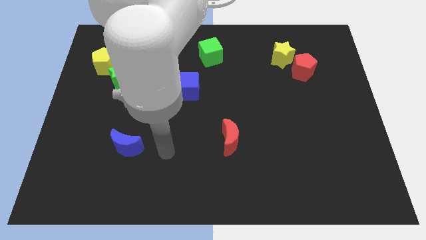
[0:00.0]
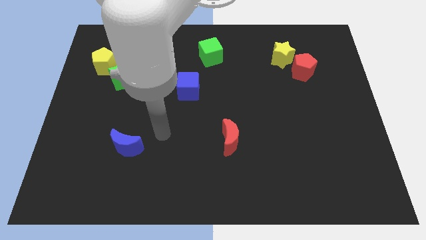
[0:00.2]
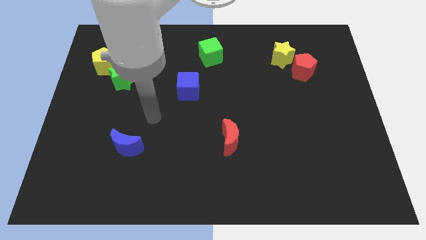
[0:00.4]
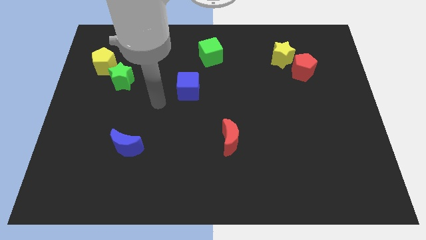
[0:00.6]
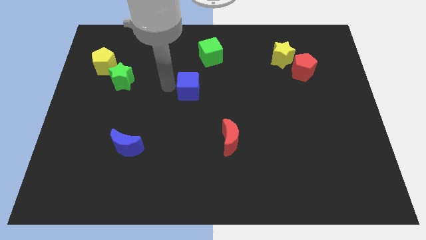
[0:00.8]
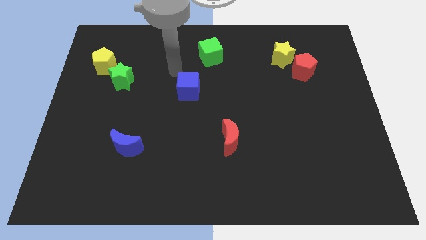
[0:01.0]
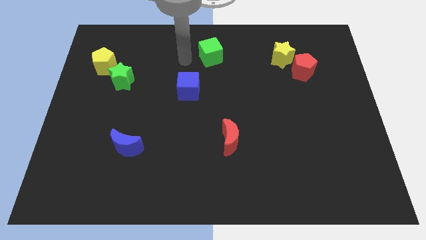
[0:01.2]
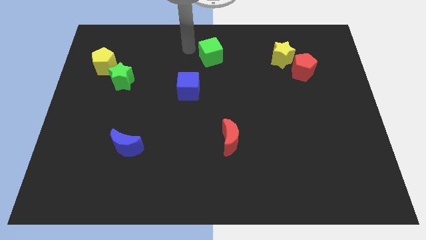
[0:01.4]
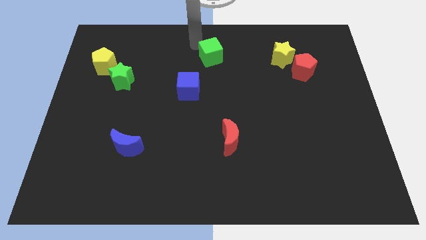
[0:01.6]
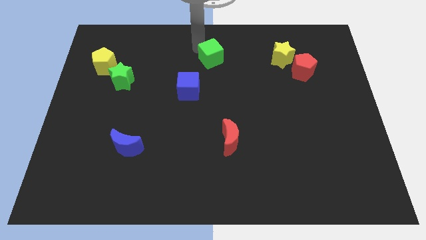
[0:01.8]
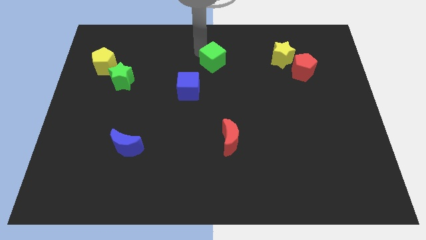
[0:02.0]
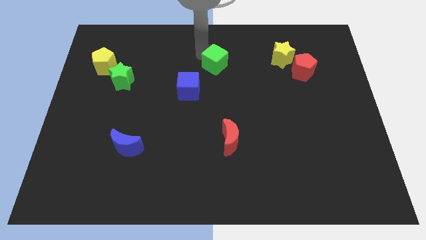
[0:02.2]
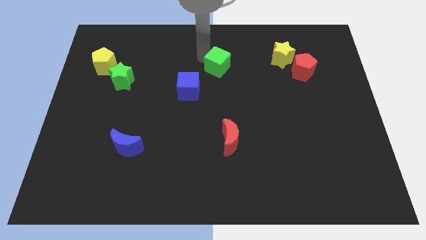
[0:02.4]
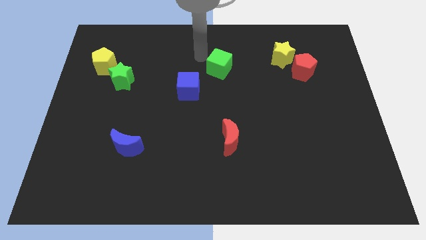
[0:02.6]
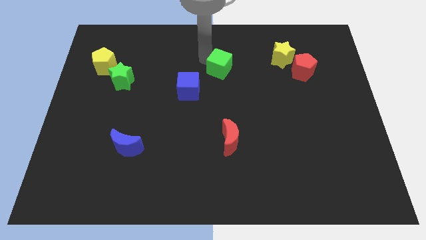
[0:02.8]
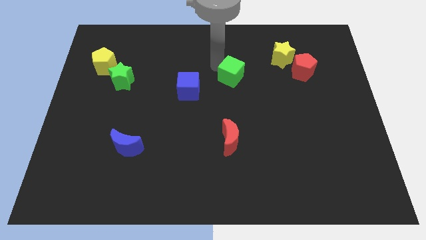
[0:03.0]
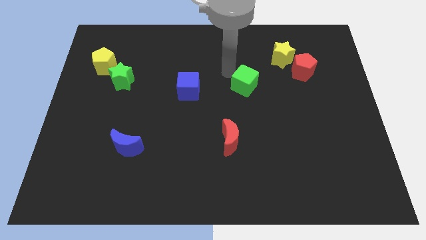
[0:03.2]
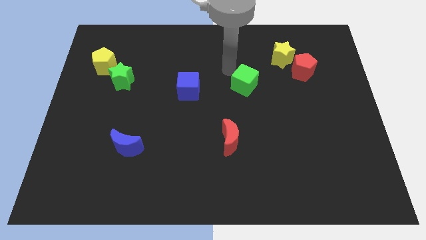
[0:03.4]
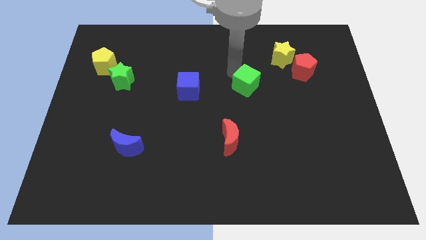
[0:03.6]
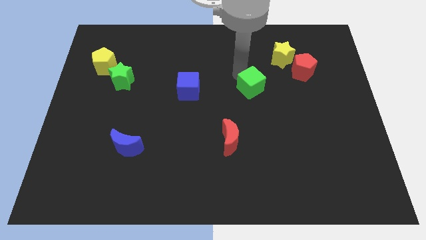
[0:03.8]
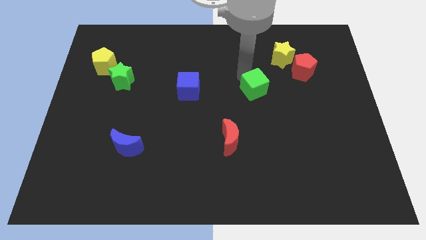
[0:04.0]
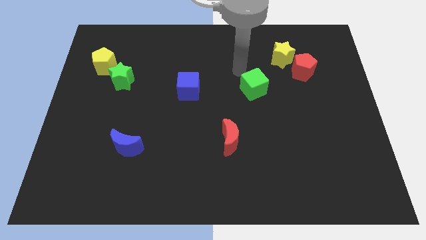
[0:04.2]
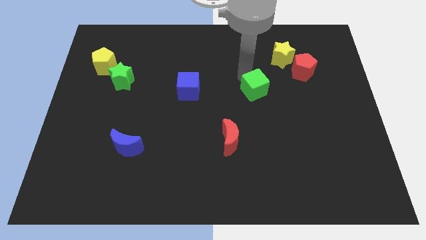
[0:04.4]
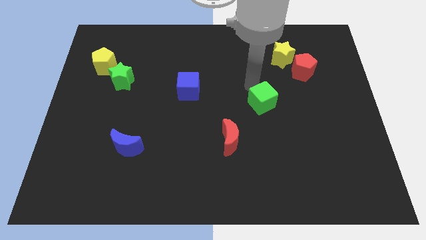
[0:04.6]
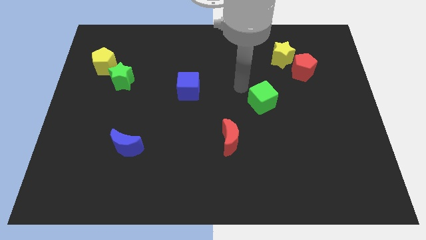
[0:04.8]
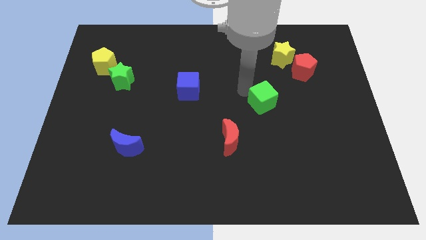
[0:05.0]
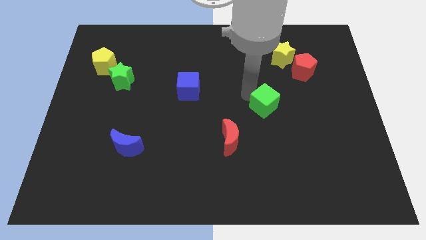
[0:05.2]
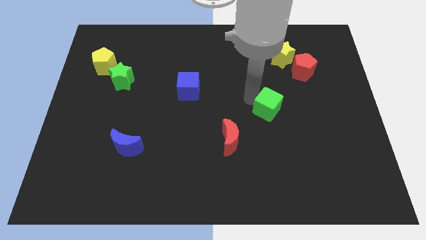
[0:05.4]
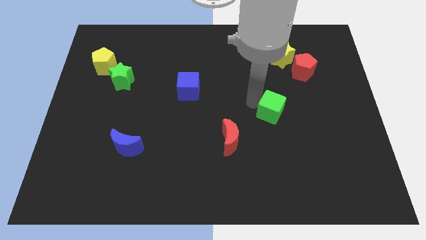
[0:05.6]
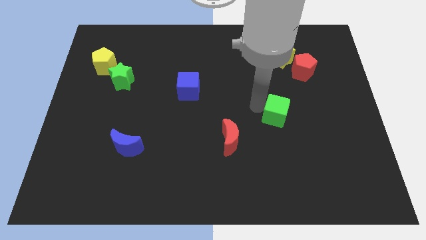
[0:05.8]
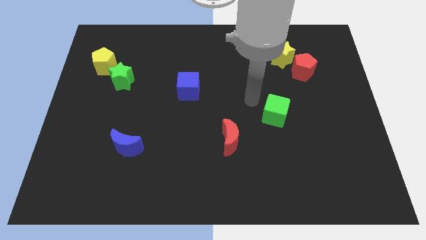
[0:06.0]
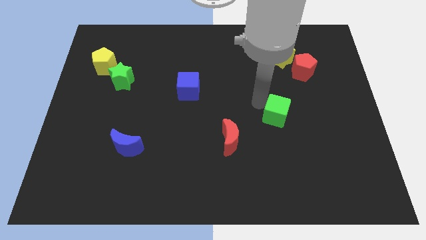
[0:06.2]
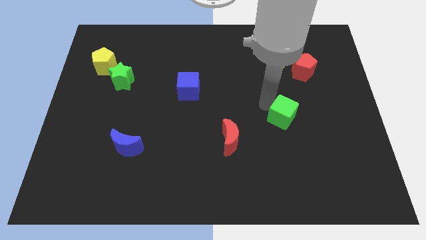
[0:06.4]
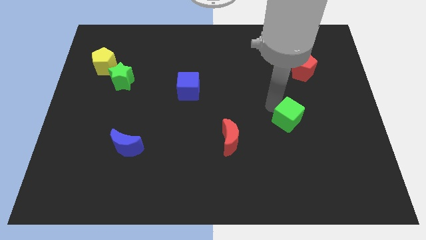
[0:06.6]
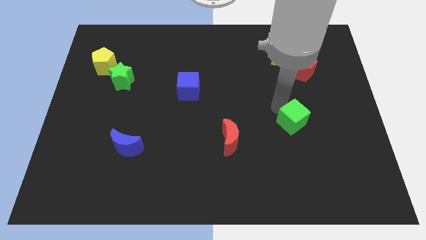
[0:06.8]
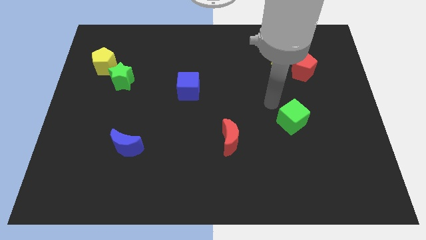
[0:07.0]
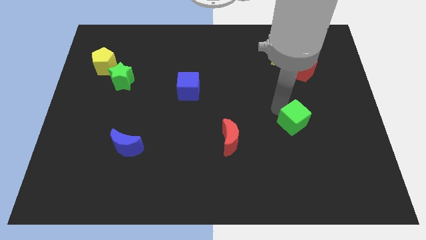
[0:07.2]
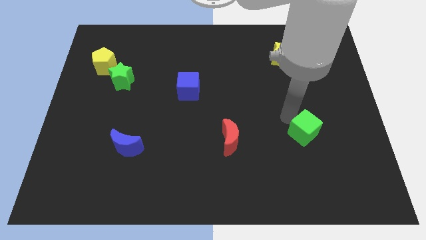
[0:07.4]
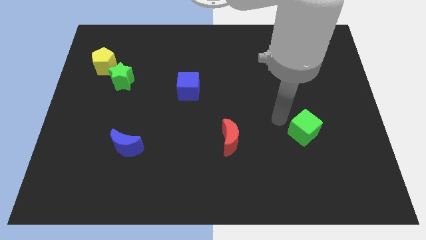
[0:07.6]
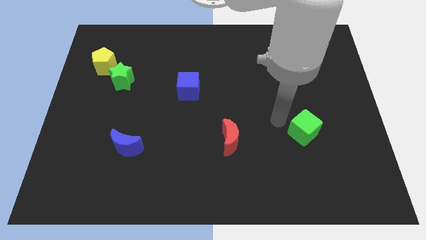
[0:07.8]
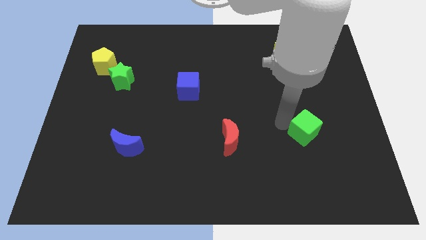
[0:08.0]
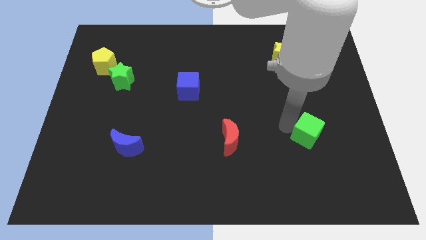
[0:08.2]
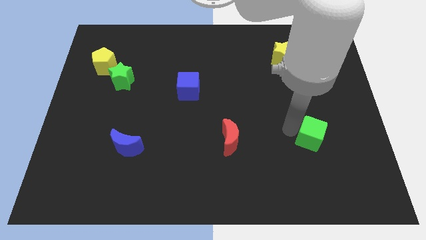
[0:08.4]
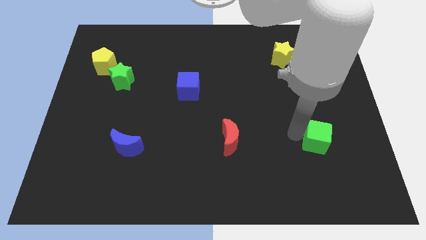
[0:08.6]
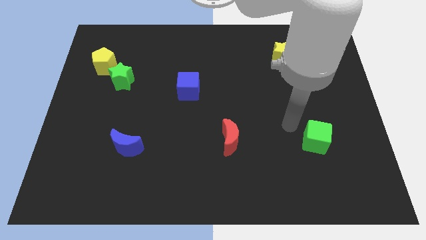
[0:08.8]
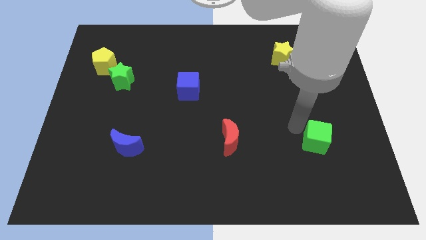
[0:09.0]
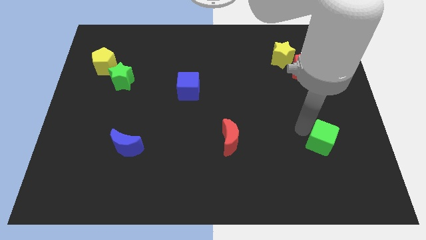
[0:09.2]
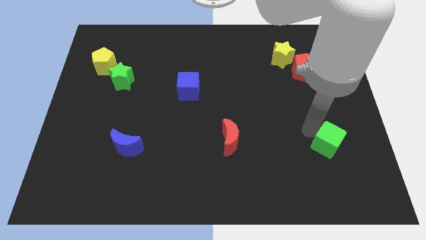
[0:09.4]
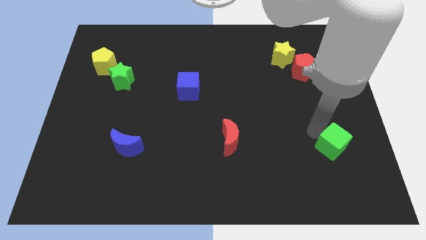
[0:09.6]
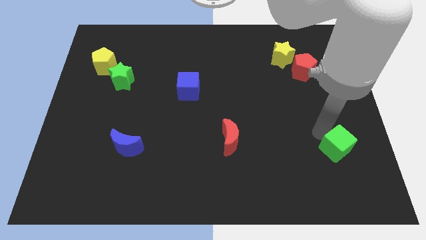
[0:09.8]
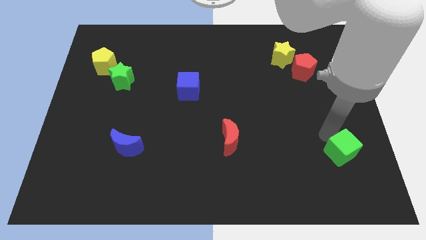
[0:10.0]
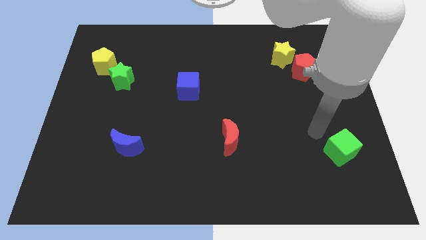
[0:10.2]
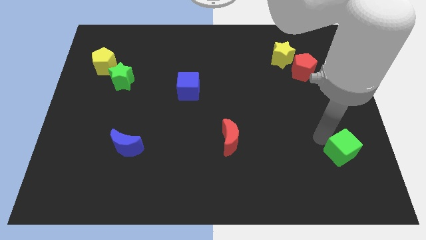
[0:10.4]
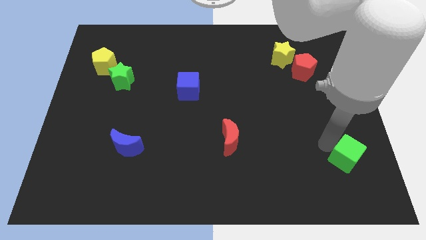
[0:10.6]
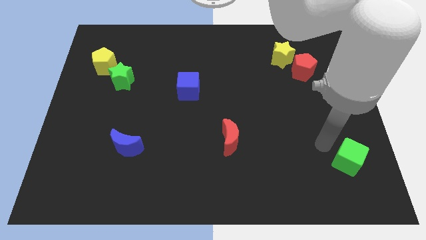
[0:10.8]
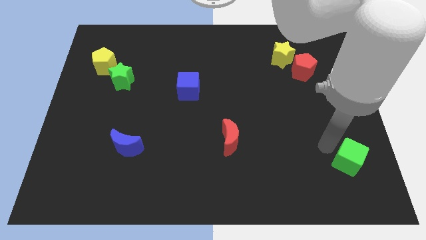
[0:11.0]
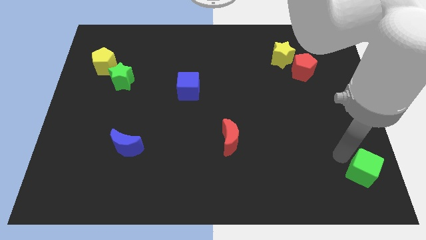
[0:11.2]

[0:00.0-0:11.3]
move the green cube to the bottom right
